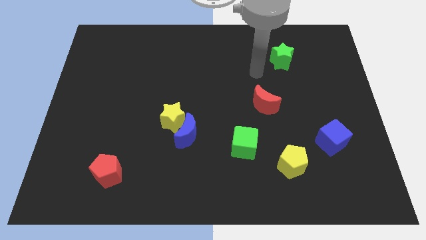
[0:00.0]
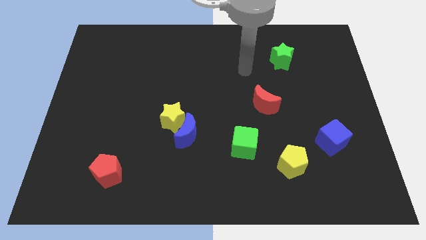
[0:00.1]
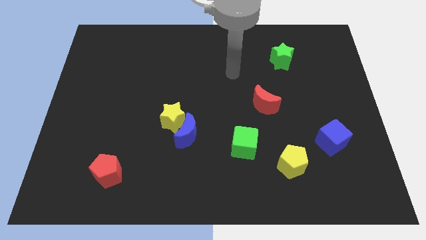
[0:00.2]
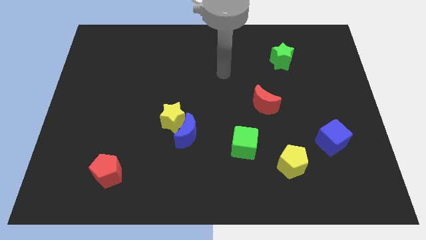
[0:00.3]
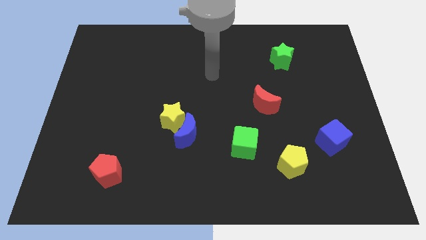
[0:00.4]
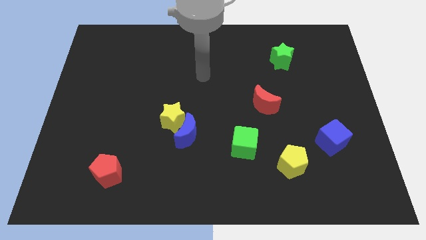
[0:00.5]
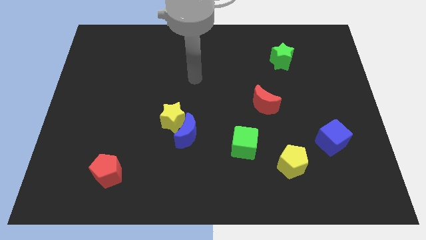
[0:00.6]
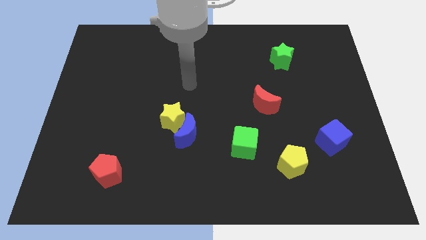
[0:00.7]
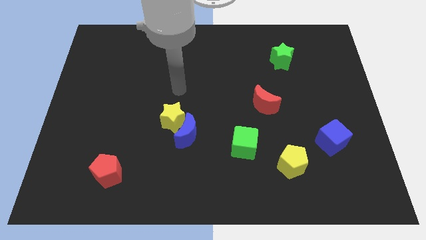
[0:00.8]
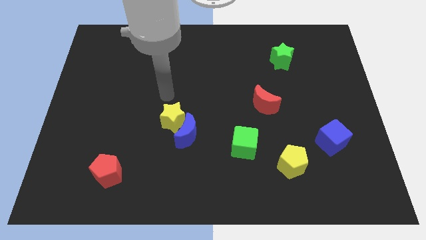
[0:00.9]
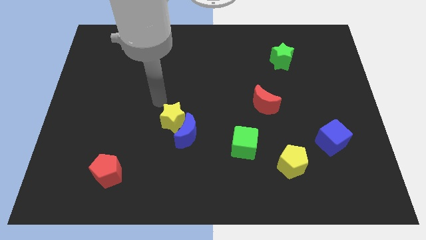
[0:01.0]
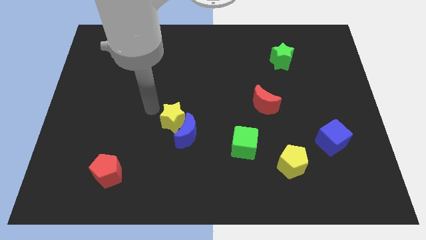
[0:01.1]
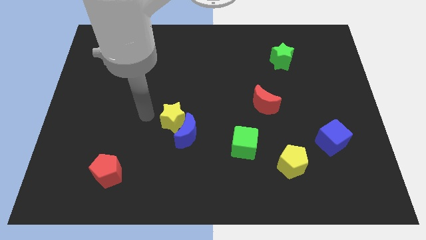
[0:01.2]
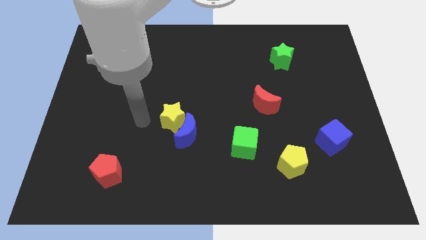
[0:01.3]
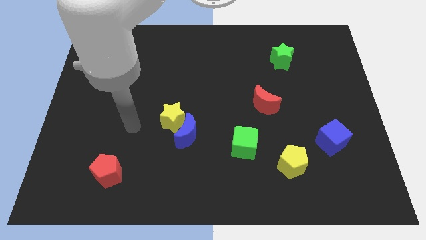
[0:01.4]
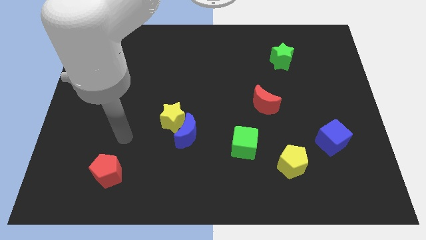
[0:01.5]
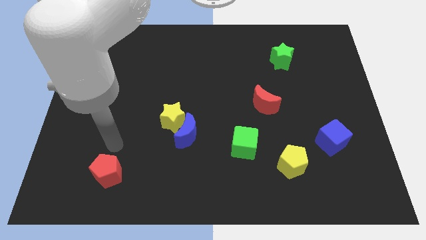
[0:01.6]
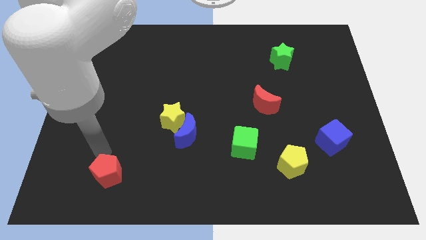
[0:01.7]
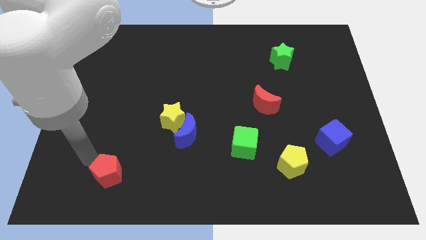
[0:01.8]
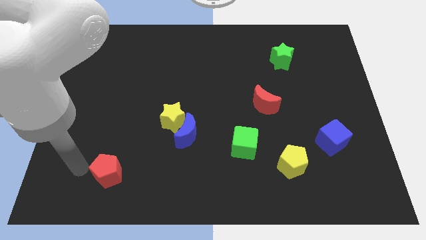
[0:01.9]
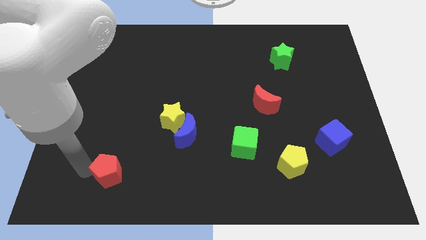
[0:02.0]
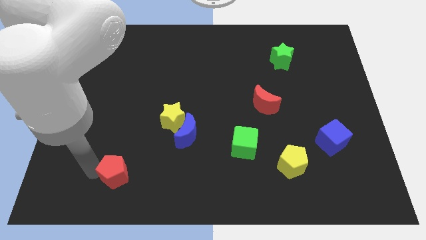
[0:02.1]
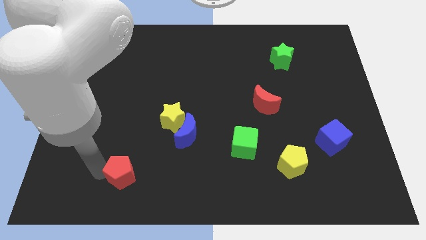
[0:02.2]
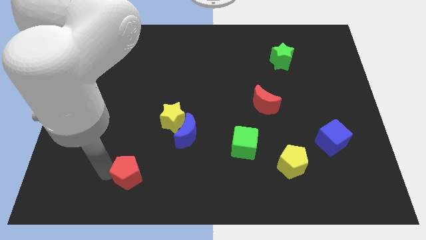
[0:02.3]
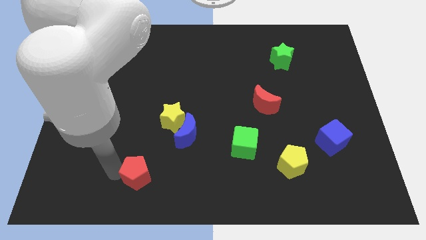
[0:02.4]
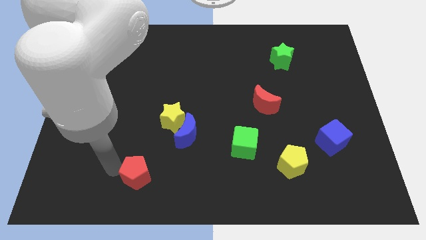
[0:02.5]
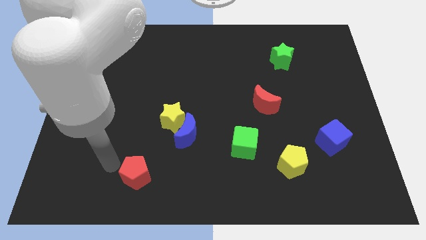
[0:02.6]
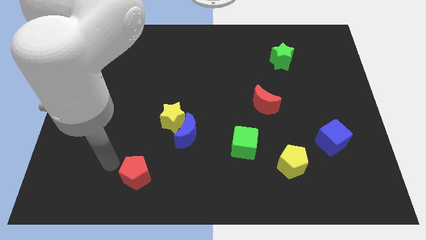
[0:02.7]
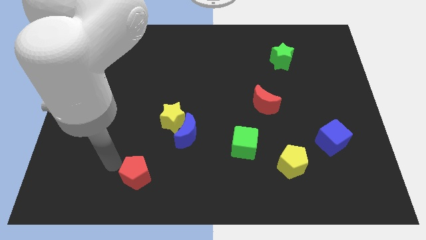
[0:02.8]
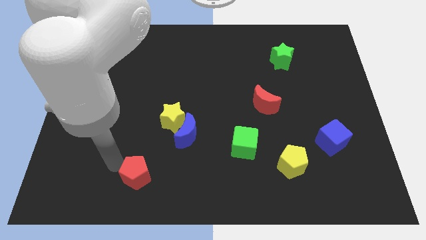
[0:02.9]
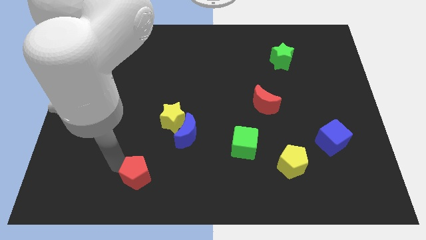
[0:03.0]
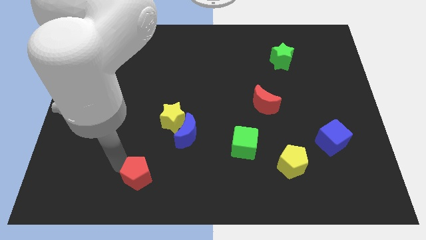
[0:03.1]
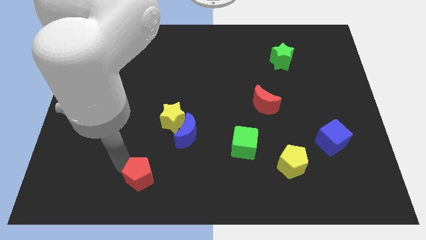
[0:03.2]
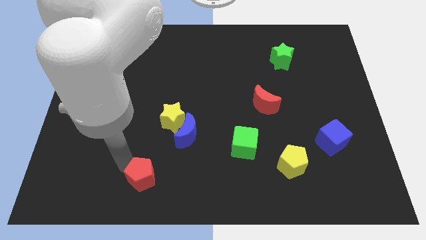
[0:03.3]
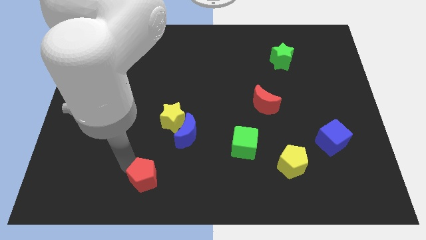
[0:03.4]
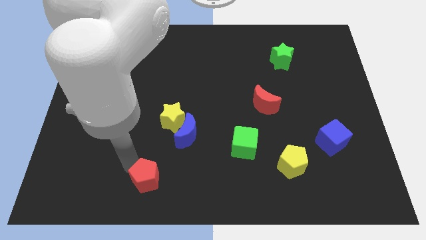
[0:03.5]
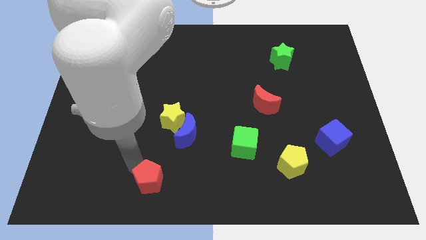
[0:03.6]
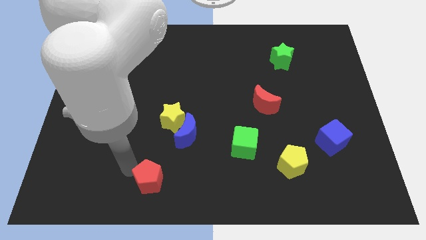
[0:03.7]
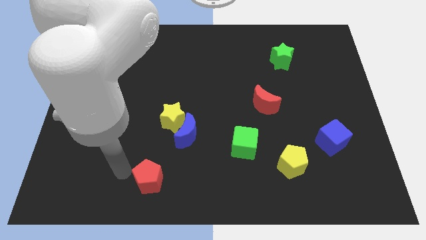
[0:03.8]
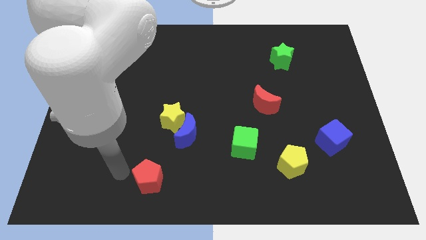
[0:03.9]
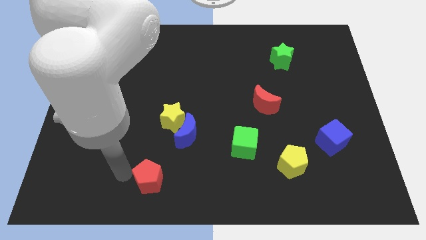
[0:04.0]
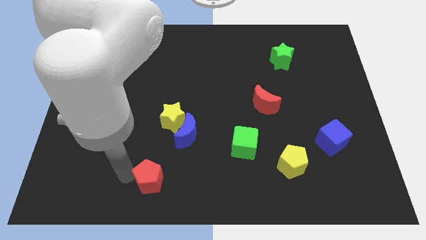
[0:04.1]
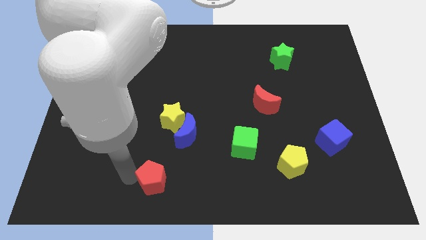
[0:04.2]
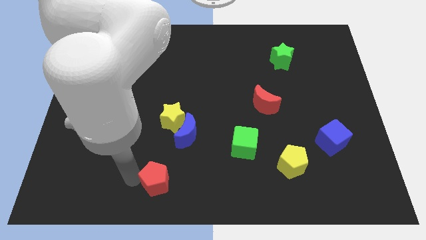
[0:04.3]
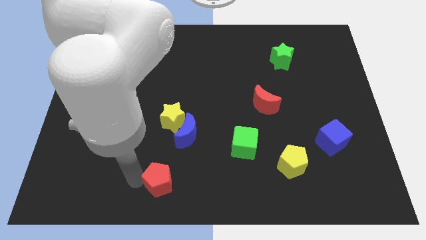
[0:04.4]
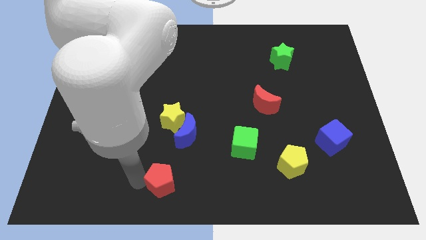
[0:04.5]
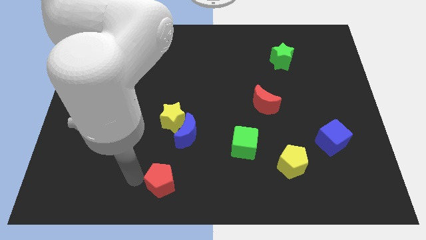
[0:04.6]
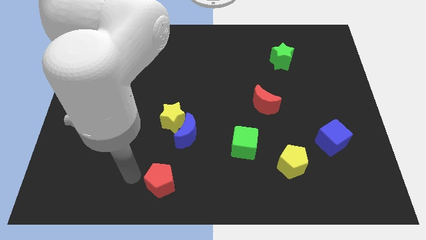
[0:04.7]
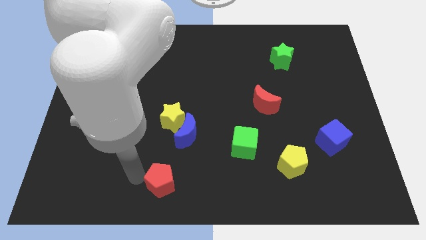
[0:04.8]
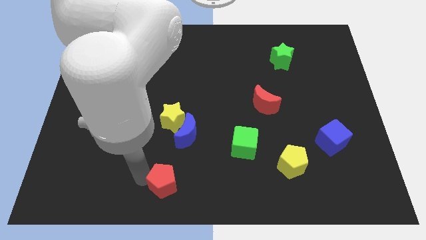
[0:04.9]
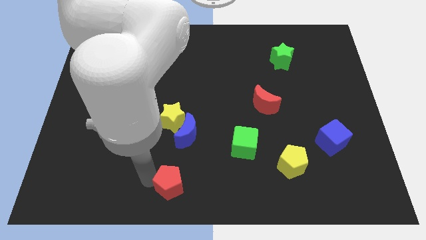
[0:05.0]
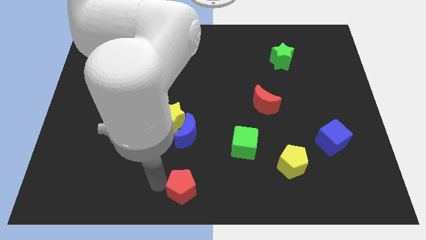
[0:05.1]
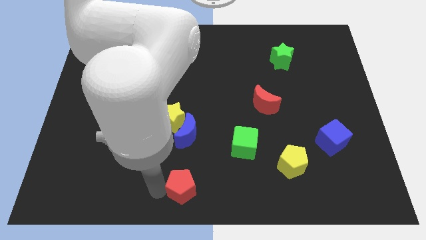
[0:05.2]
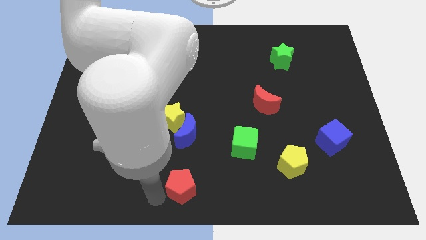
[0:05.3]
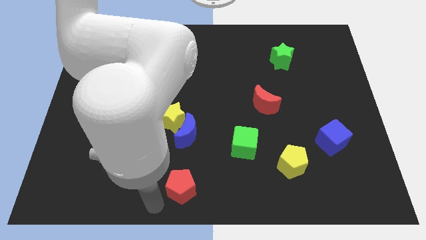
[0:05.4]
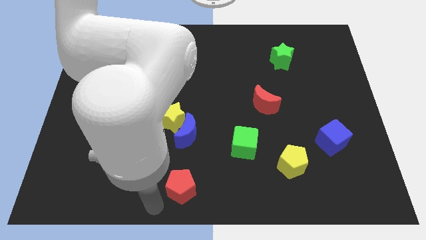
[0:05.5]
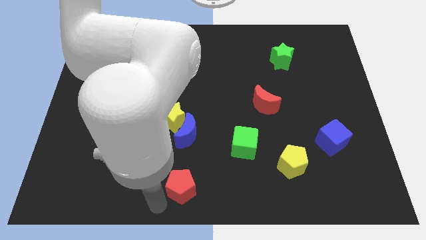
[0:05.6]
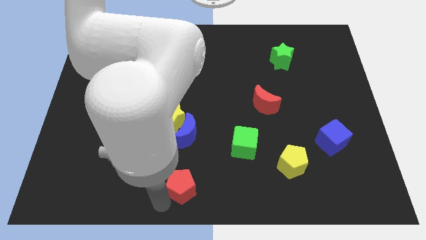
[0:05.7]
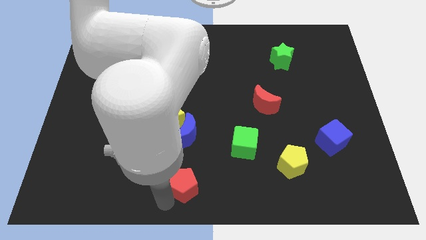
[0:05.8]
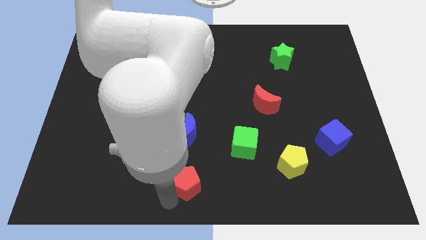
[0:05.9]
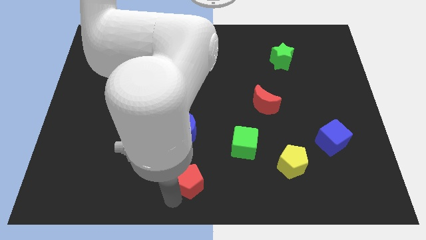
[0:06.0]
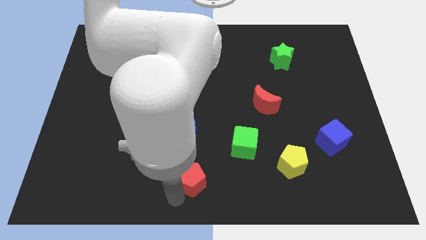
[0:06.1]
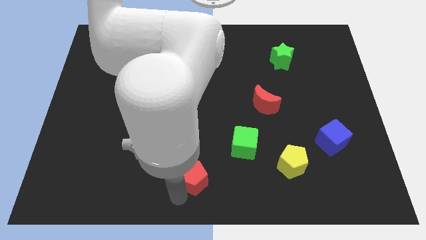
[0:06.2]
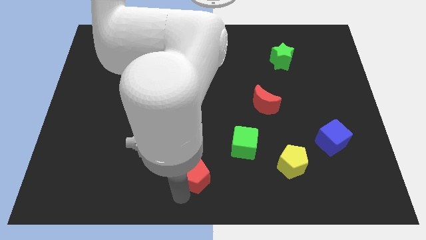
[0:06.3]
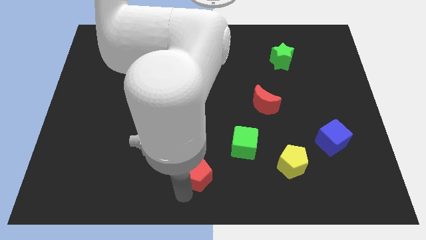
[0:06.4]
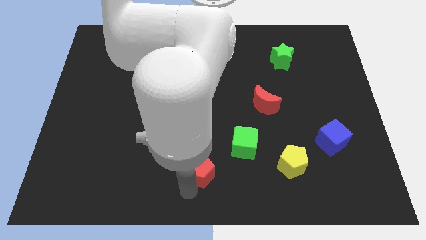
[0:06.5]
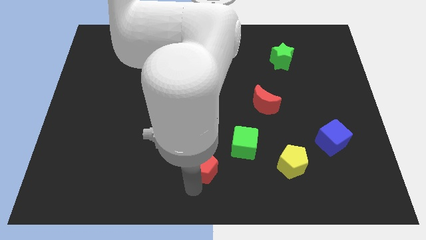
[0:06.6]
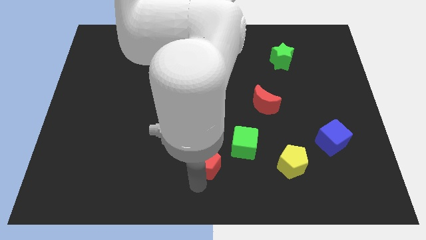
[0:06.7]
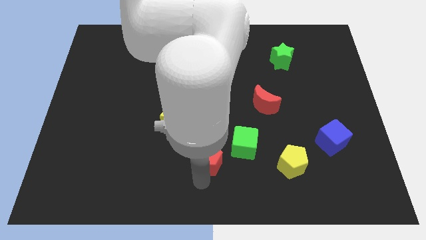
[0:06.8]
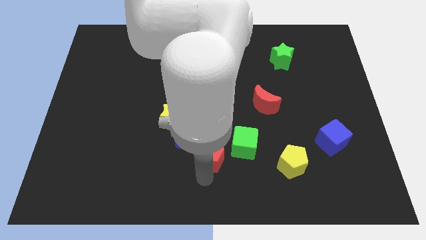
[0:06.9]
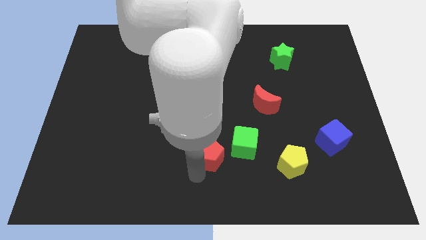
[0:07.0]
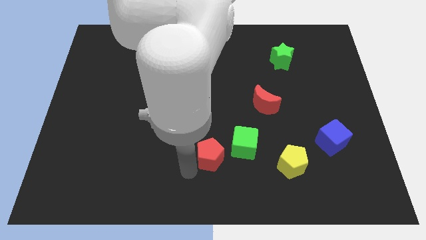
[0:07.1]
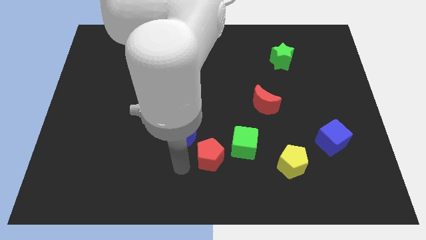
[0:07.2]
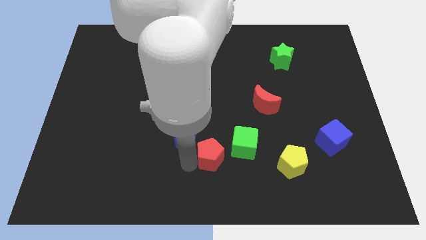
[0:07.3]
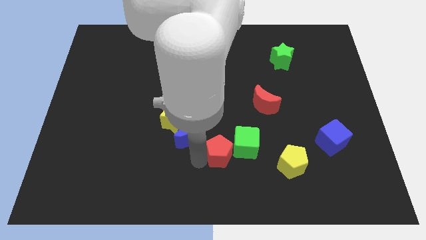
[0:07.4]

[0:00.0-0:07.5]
move the red pentagon next to the green cube
